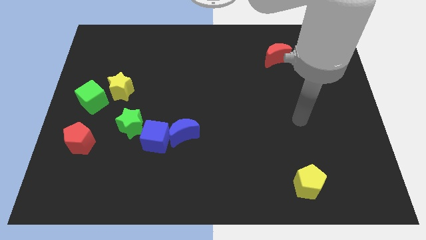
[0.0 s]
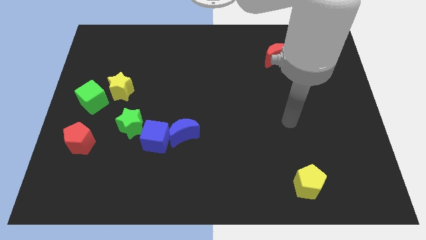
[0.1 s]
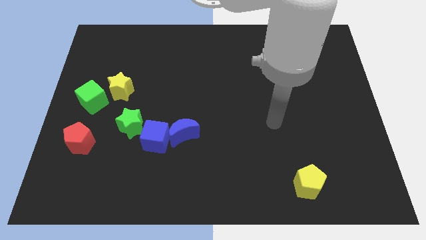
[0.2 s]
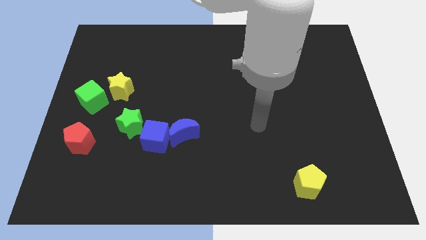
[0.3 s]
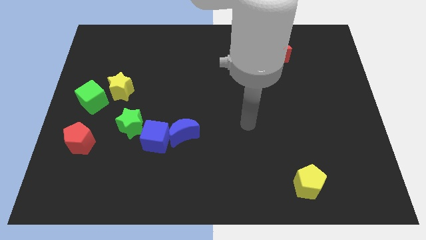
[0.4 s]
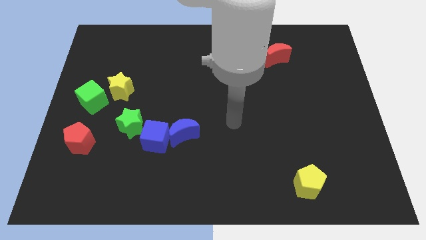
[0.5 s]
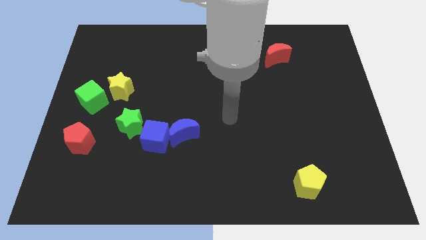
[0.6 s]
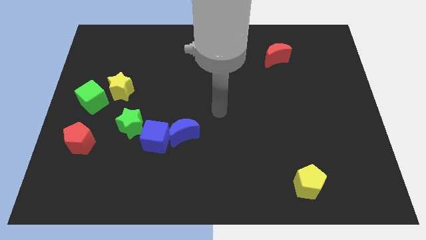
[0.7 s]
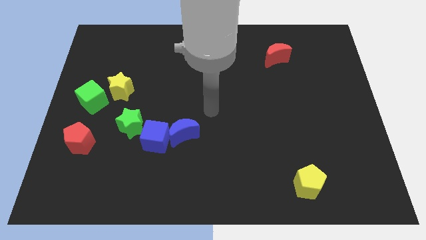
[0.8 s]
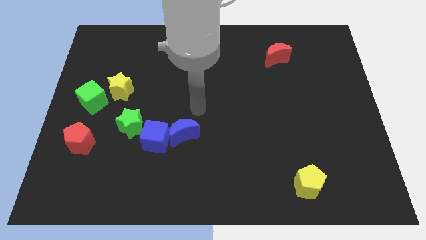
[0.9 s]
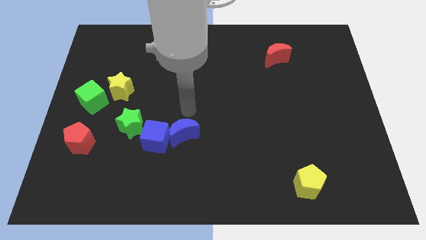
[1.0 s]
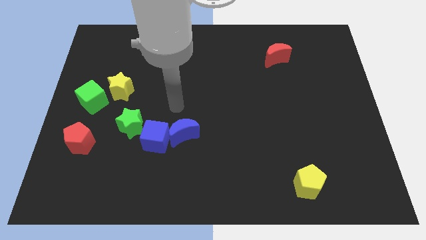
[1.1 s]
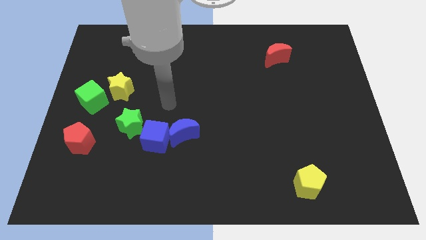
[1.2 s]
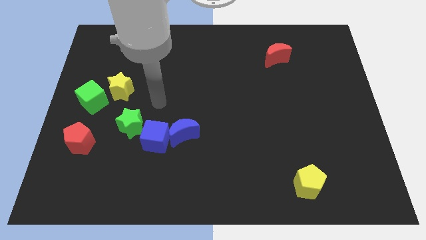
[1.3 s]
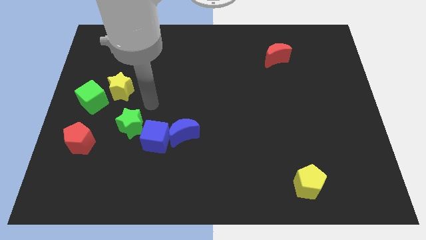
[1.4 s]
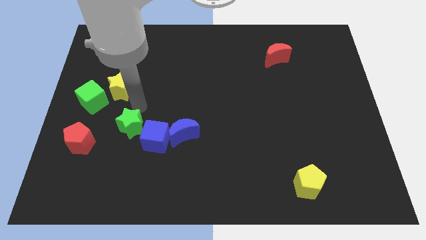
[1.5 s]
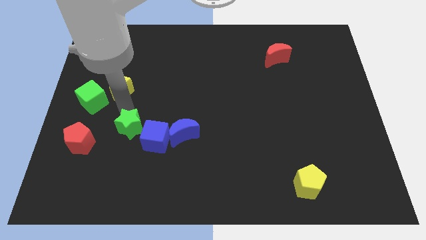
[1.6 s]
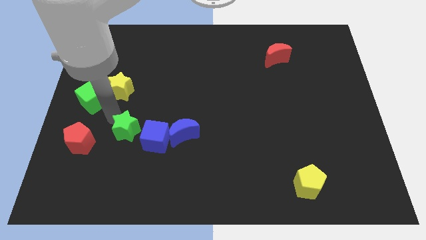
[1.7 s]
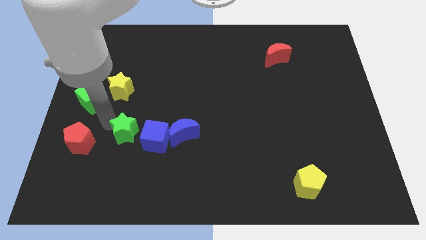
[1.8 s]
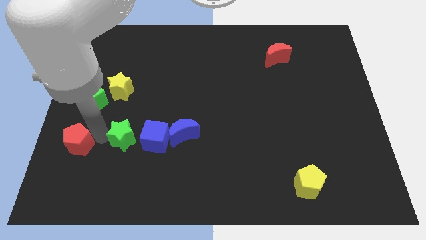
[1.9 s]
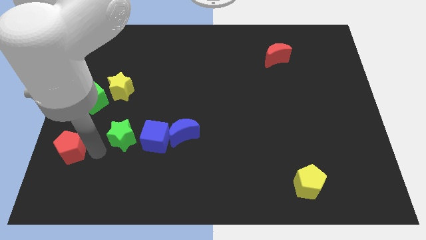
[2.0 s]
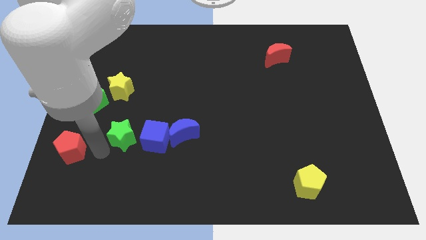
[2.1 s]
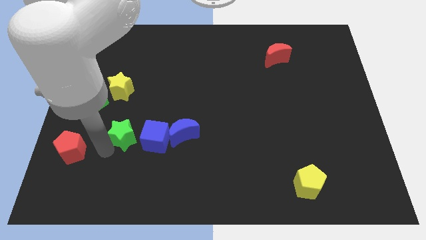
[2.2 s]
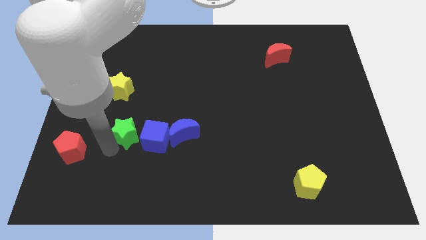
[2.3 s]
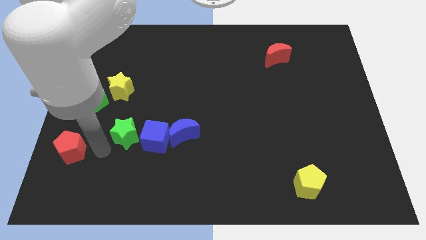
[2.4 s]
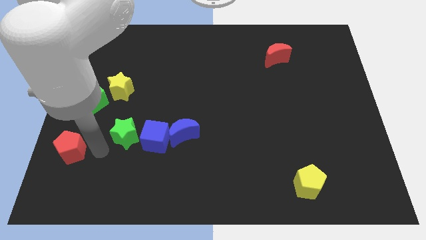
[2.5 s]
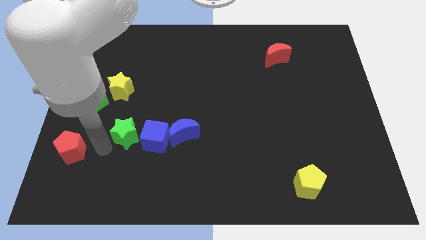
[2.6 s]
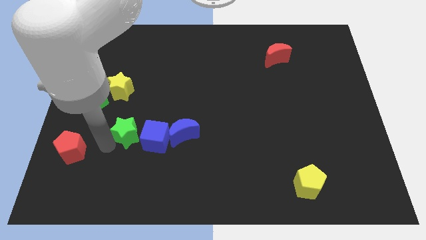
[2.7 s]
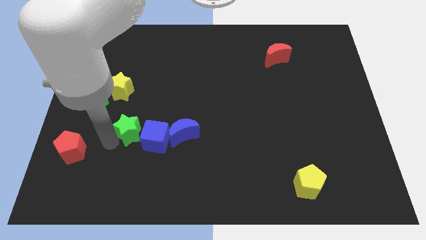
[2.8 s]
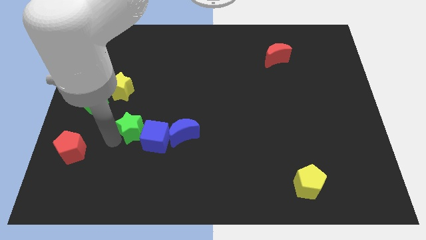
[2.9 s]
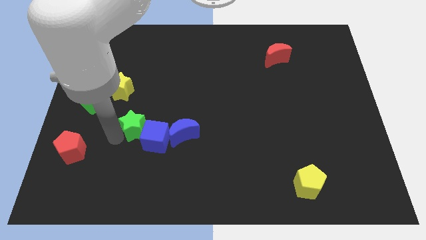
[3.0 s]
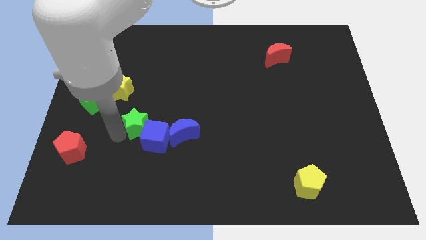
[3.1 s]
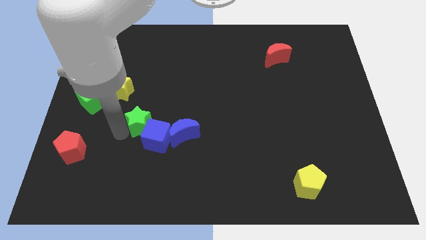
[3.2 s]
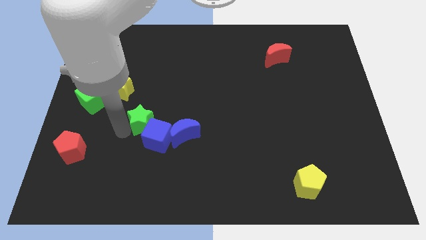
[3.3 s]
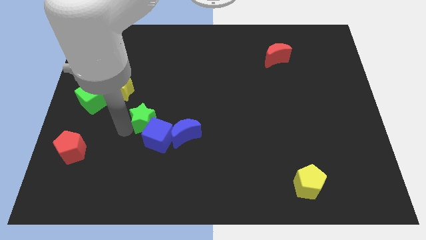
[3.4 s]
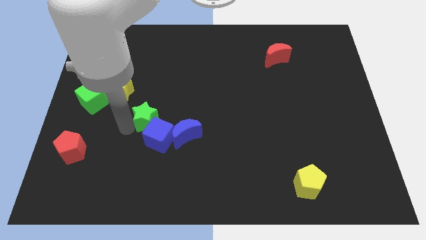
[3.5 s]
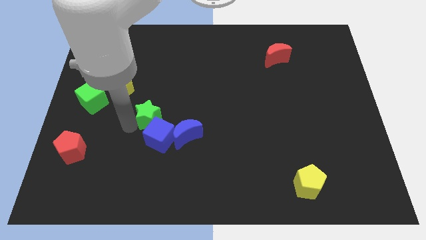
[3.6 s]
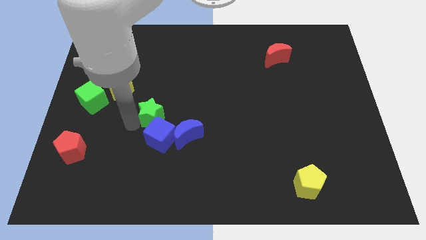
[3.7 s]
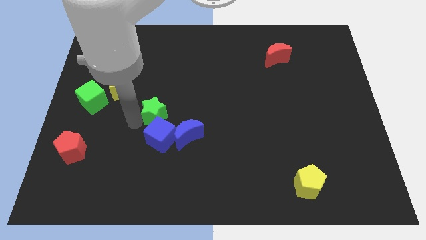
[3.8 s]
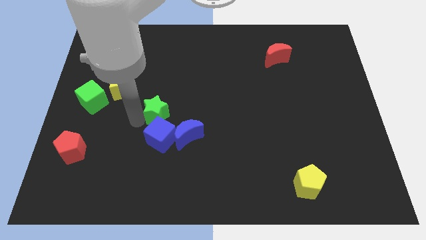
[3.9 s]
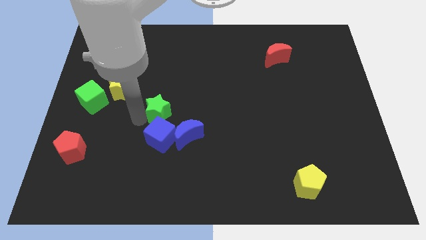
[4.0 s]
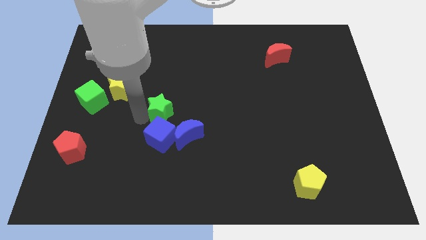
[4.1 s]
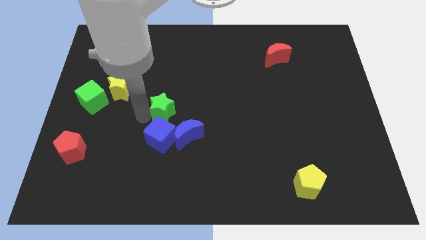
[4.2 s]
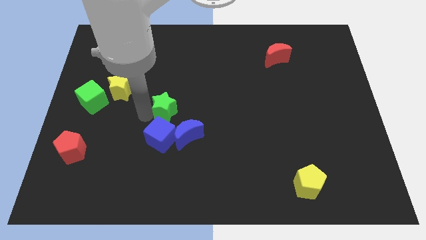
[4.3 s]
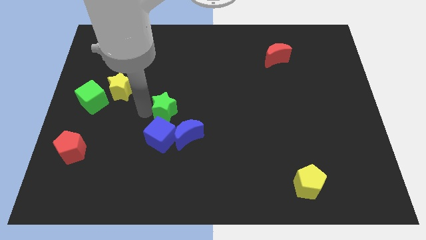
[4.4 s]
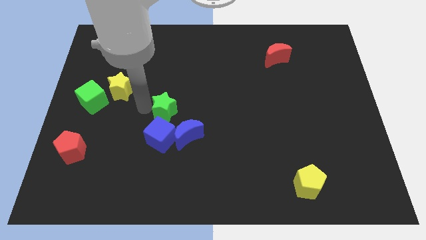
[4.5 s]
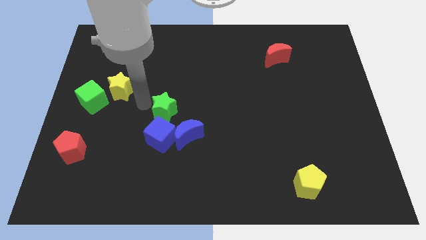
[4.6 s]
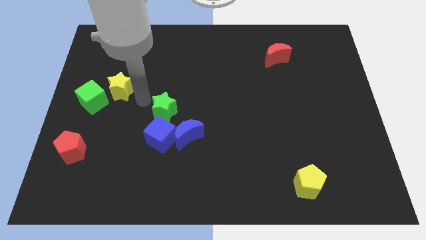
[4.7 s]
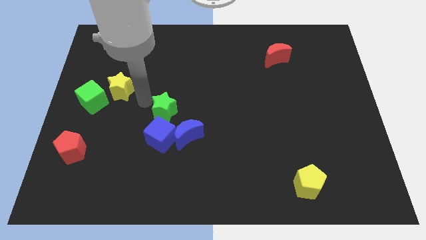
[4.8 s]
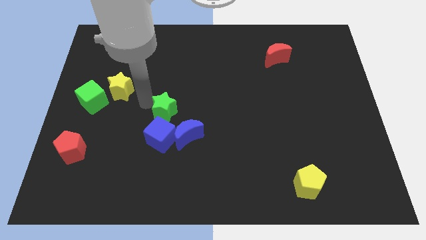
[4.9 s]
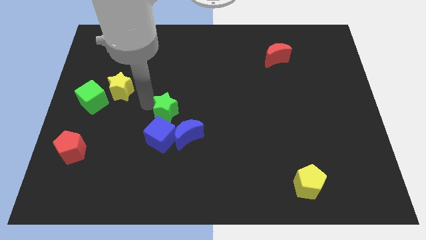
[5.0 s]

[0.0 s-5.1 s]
slightly slide the green star right

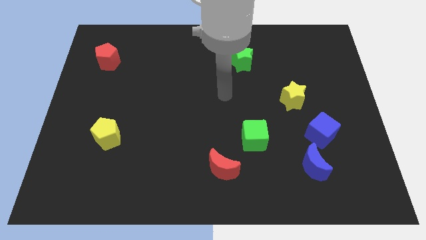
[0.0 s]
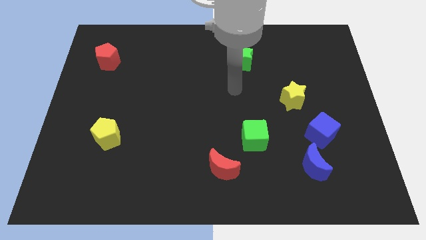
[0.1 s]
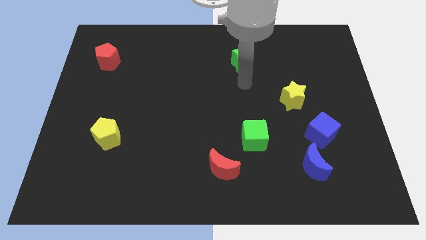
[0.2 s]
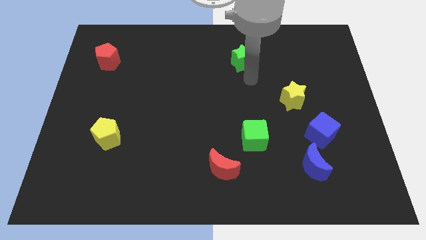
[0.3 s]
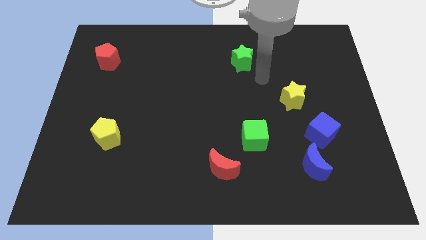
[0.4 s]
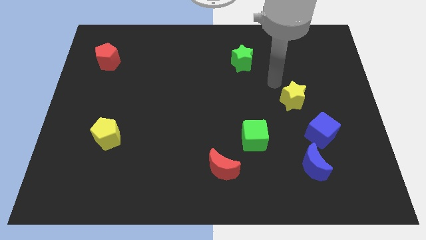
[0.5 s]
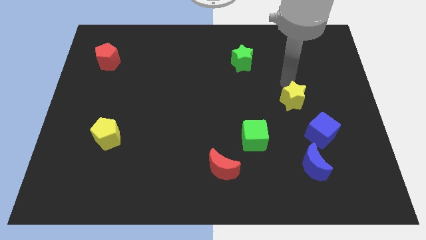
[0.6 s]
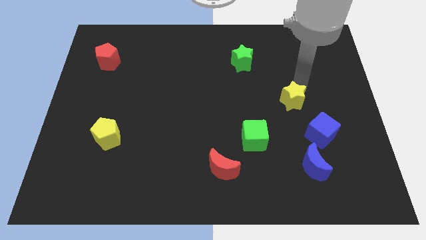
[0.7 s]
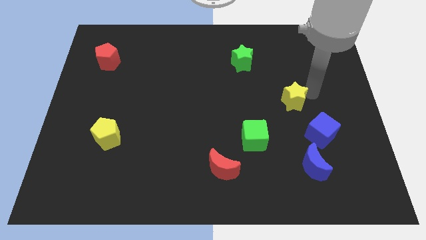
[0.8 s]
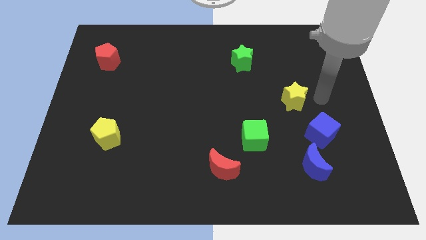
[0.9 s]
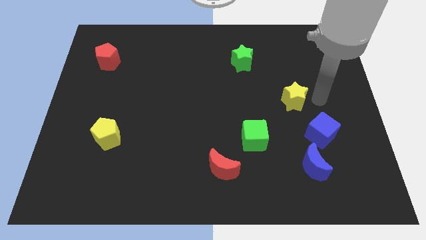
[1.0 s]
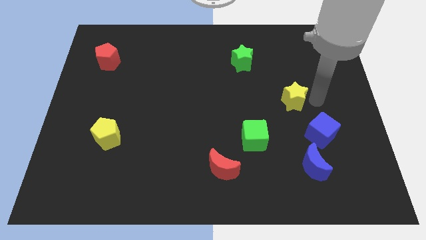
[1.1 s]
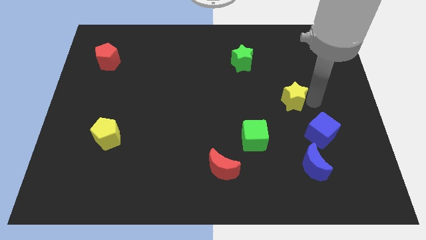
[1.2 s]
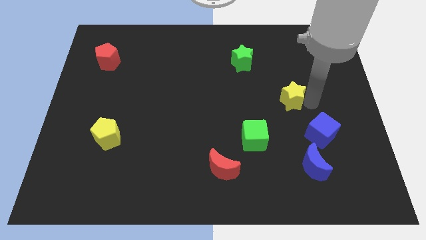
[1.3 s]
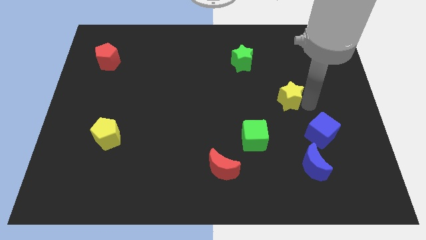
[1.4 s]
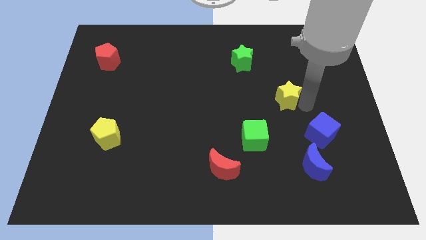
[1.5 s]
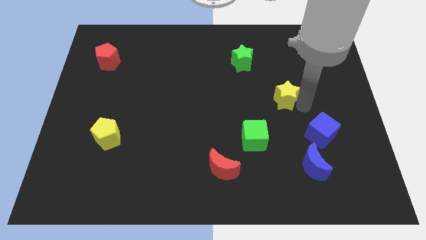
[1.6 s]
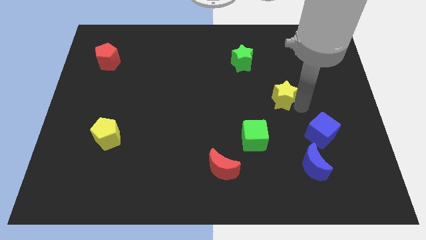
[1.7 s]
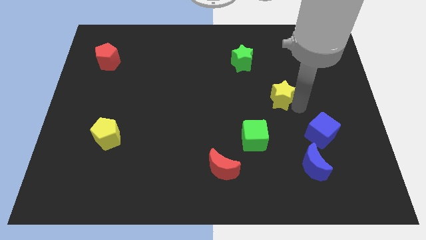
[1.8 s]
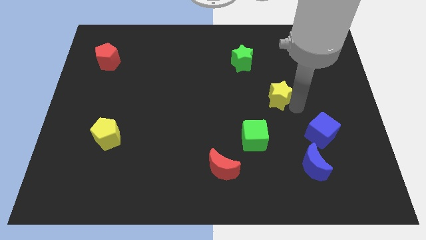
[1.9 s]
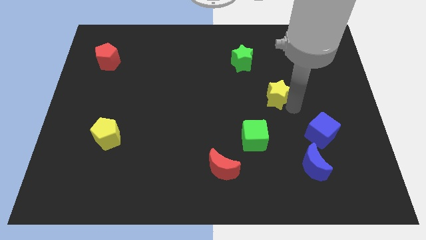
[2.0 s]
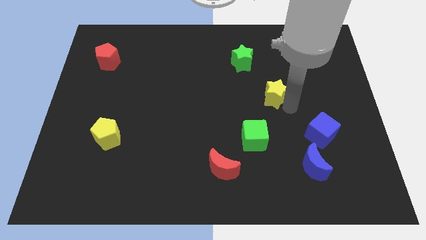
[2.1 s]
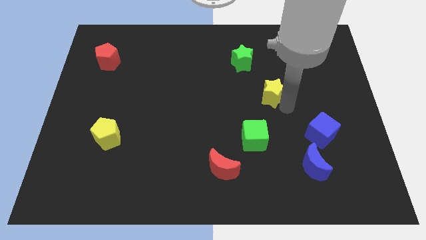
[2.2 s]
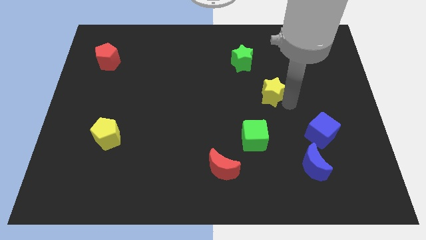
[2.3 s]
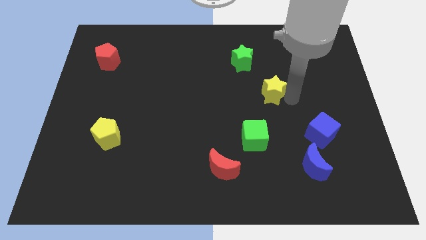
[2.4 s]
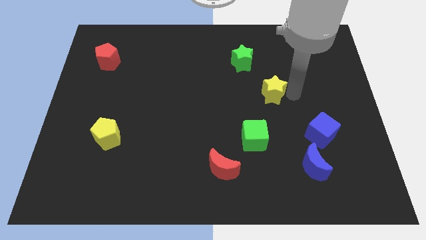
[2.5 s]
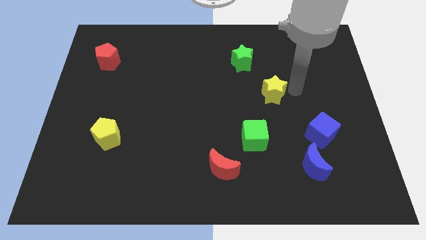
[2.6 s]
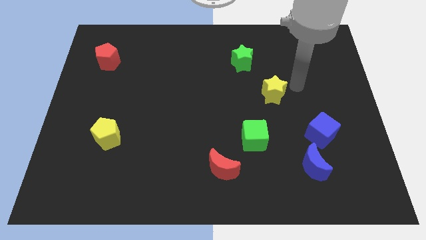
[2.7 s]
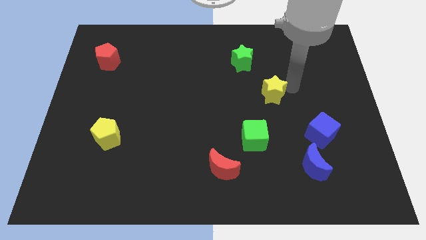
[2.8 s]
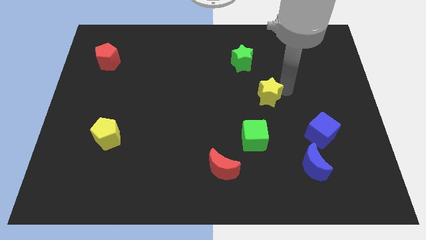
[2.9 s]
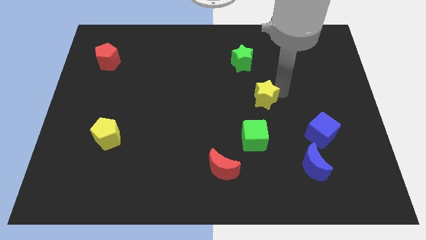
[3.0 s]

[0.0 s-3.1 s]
slightly move the yellow star left
